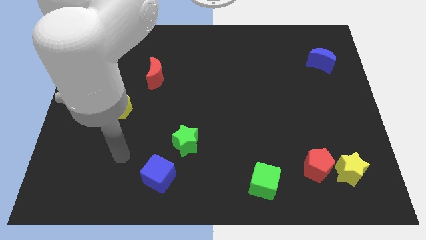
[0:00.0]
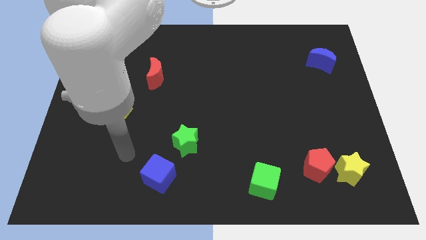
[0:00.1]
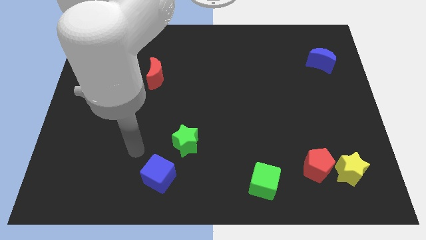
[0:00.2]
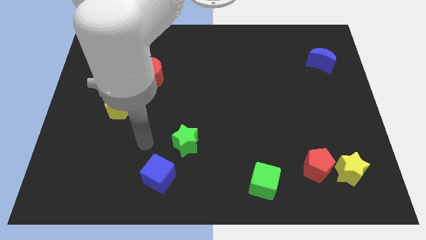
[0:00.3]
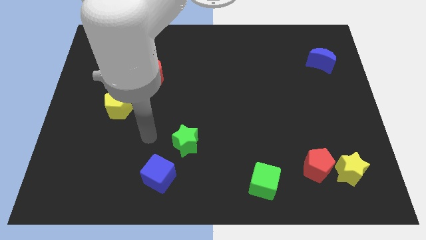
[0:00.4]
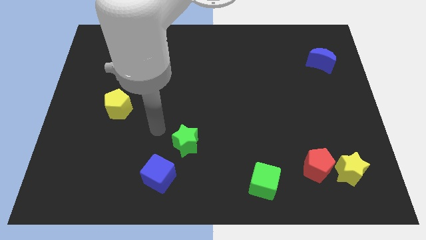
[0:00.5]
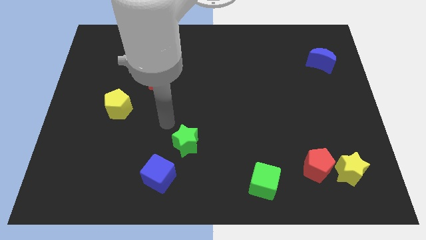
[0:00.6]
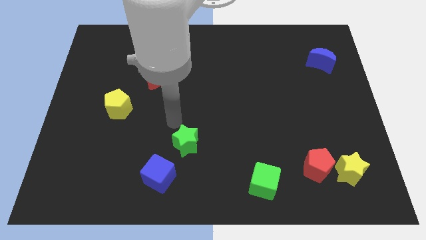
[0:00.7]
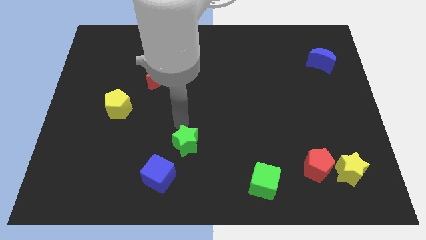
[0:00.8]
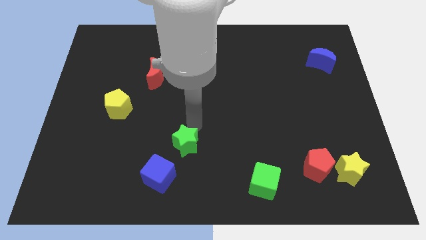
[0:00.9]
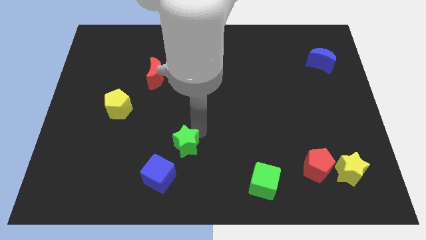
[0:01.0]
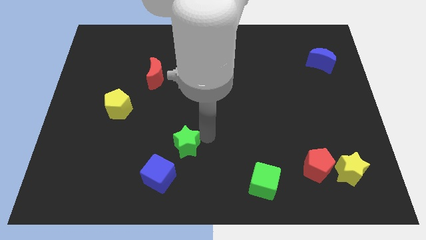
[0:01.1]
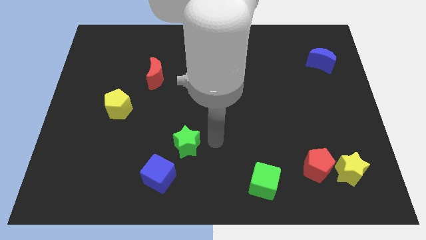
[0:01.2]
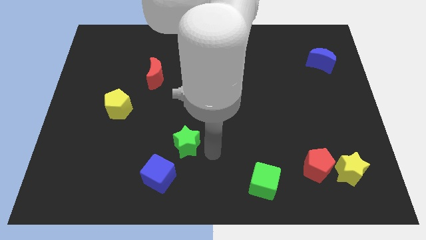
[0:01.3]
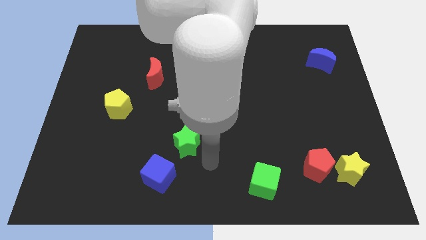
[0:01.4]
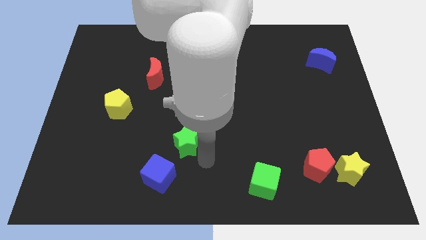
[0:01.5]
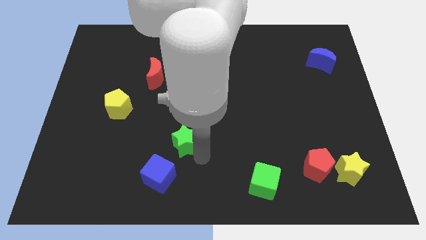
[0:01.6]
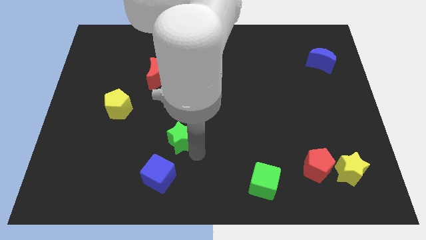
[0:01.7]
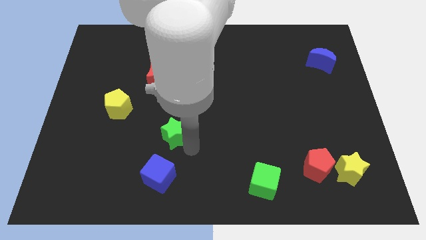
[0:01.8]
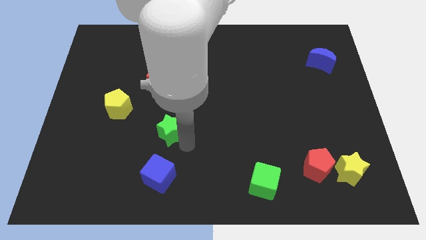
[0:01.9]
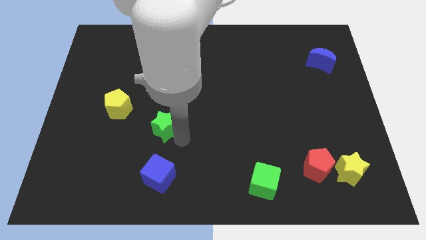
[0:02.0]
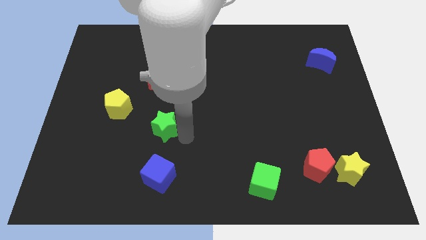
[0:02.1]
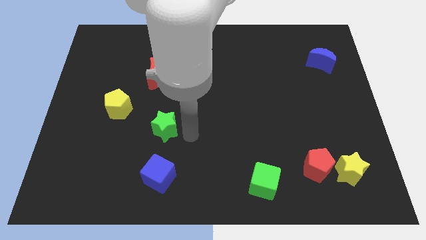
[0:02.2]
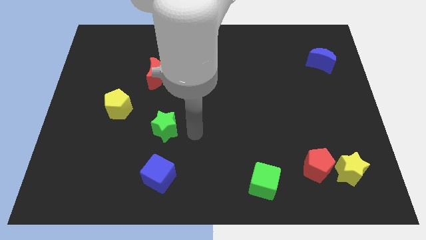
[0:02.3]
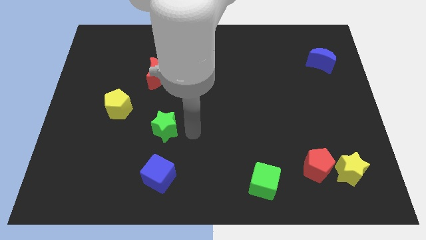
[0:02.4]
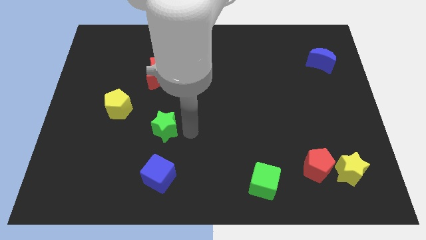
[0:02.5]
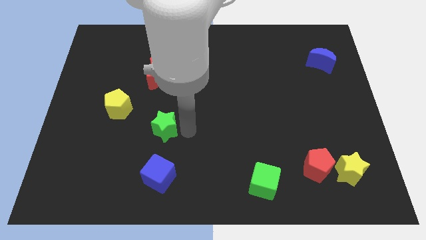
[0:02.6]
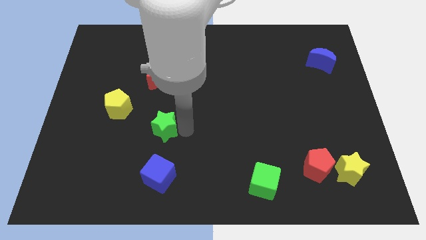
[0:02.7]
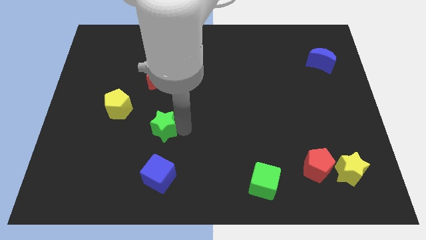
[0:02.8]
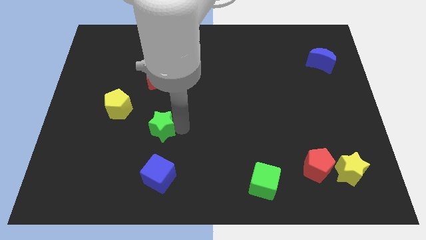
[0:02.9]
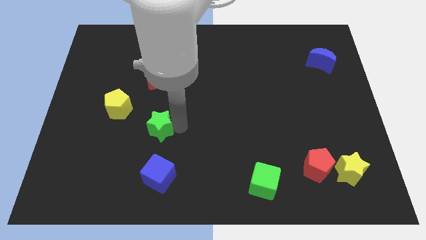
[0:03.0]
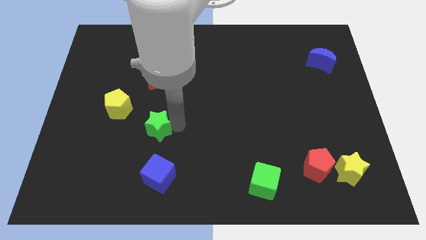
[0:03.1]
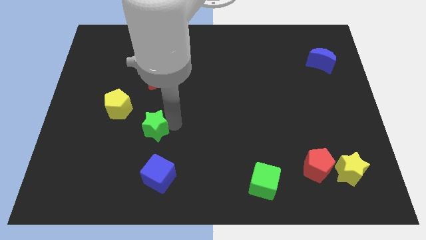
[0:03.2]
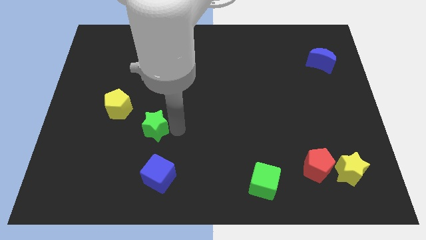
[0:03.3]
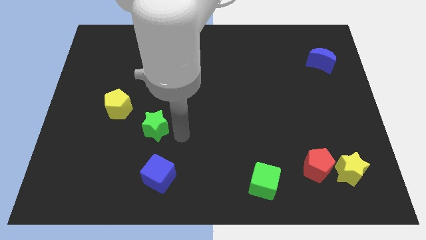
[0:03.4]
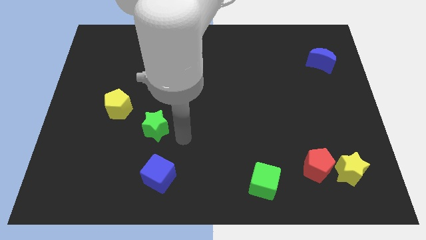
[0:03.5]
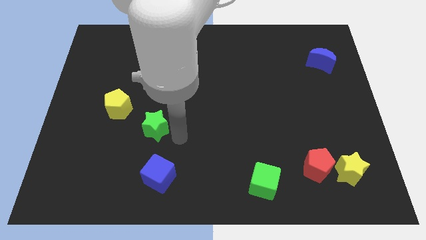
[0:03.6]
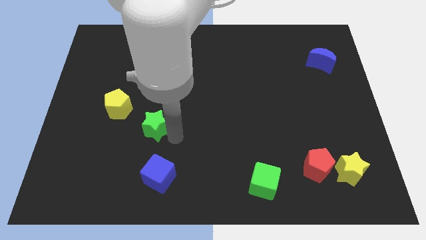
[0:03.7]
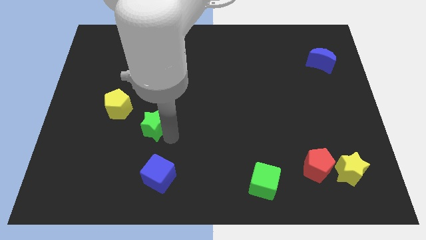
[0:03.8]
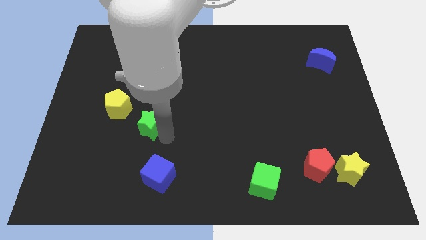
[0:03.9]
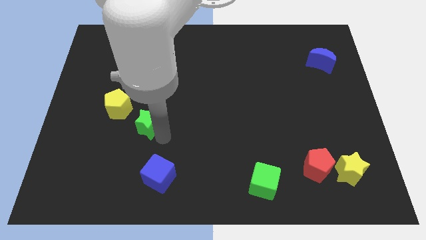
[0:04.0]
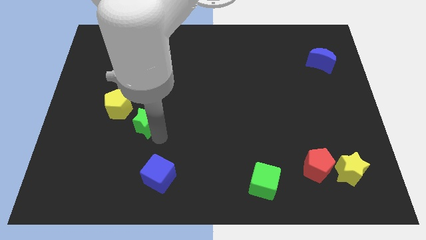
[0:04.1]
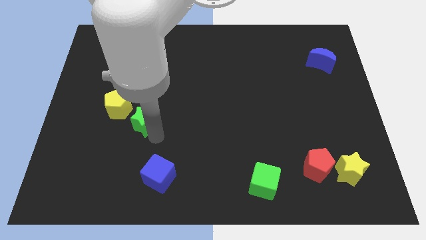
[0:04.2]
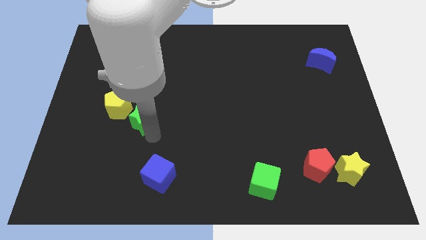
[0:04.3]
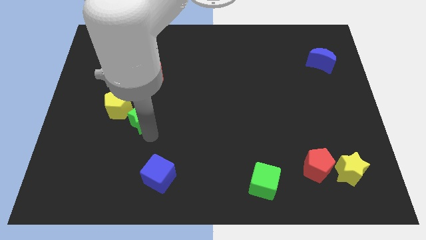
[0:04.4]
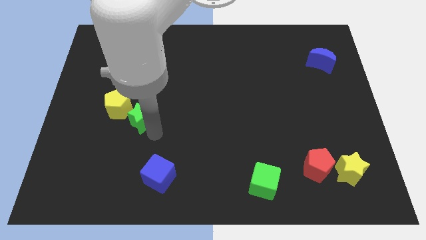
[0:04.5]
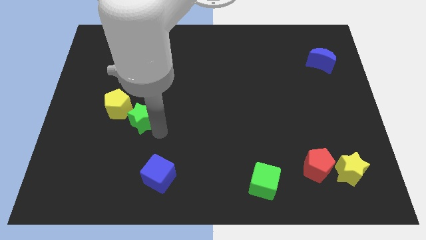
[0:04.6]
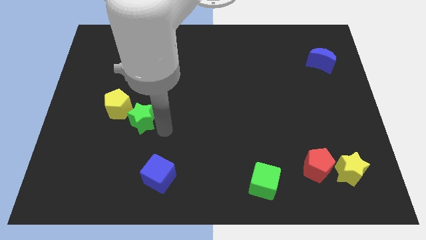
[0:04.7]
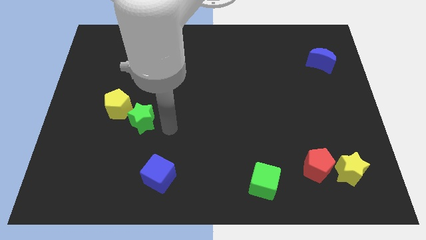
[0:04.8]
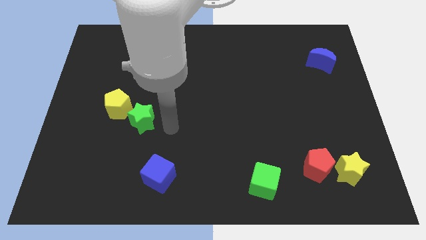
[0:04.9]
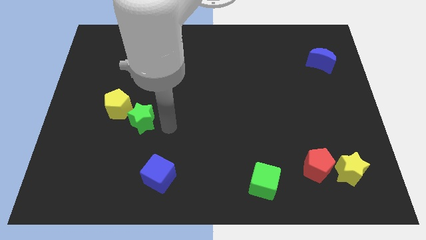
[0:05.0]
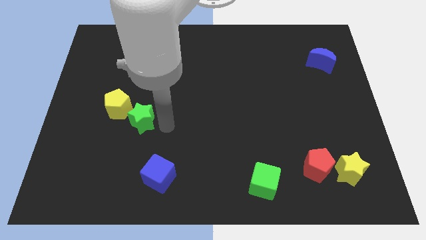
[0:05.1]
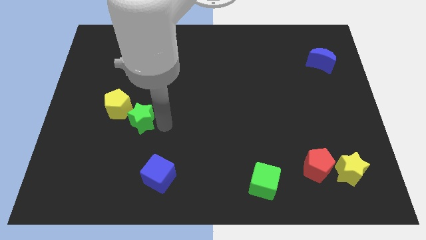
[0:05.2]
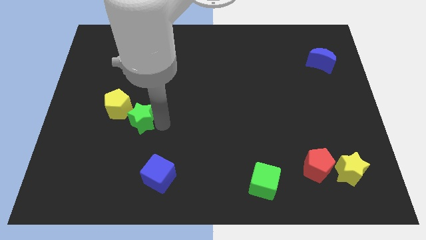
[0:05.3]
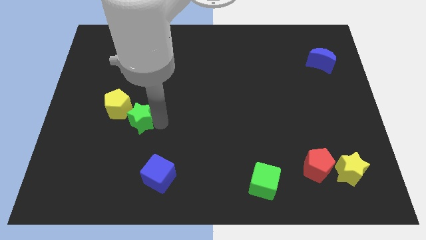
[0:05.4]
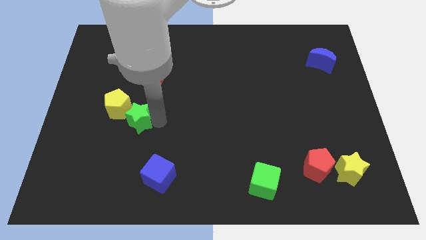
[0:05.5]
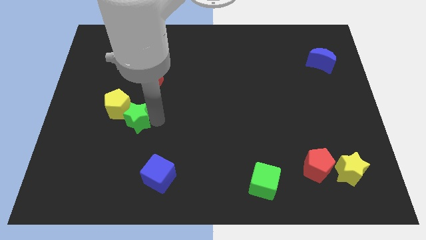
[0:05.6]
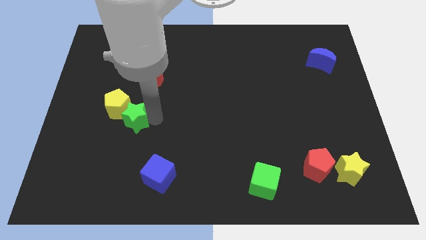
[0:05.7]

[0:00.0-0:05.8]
push the green star towards the yellow pentagon

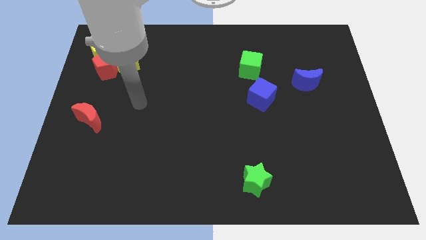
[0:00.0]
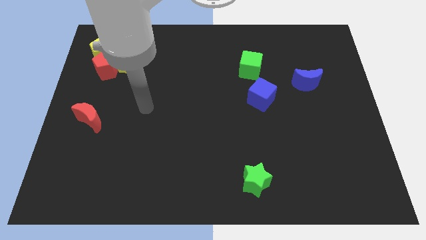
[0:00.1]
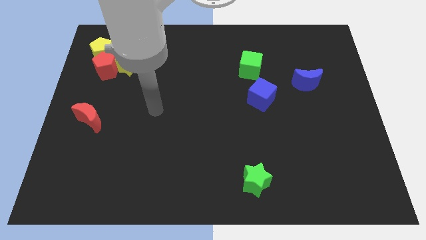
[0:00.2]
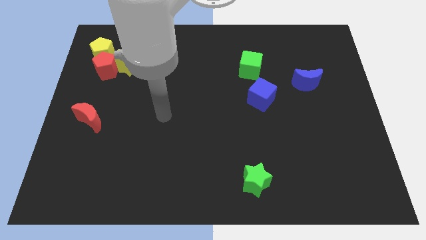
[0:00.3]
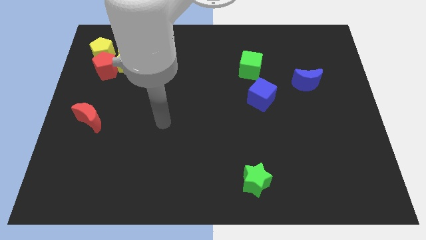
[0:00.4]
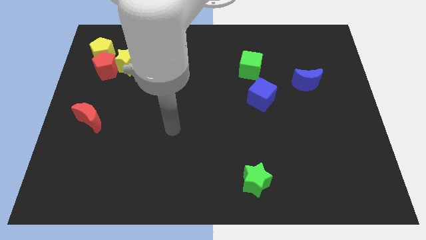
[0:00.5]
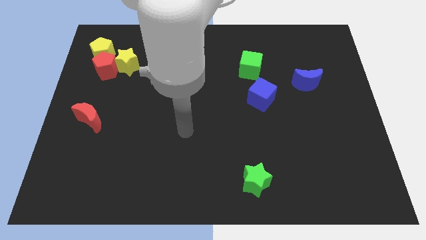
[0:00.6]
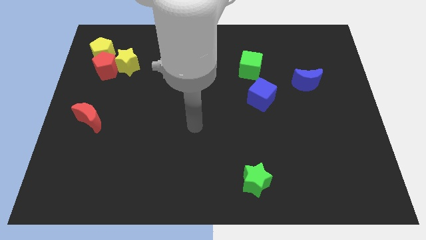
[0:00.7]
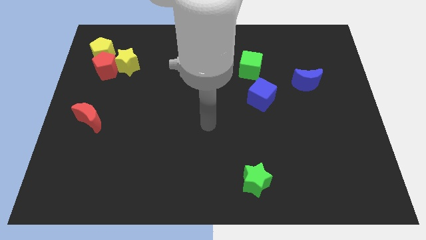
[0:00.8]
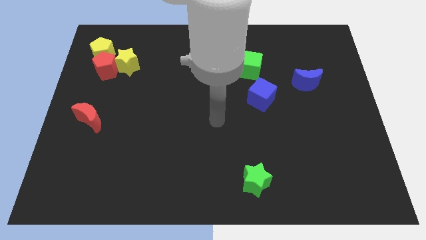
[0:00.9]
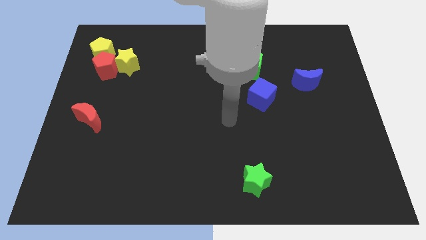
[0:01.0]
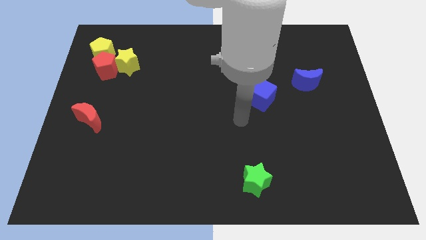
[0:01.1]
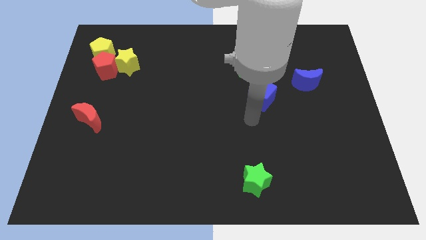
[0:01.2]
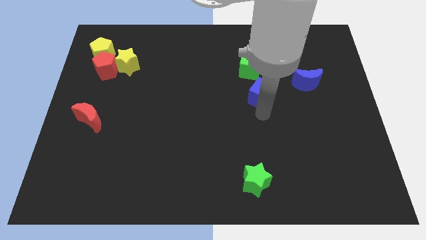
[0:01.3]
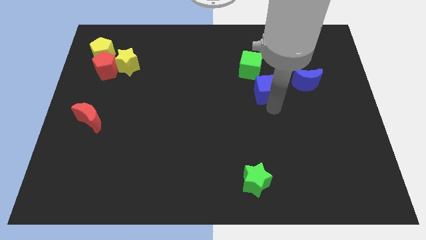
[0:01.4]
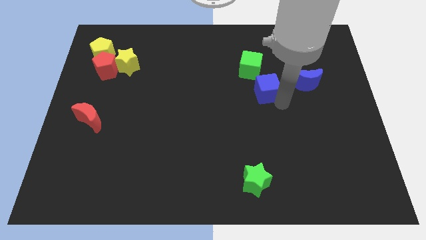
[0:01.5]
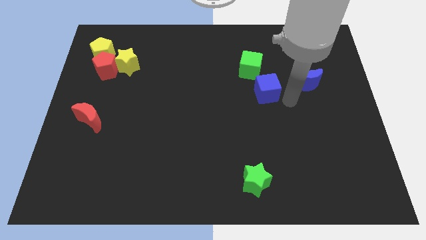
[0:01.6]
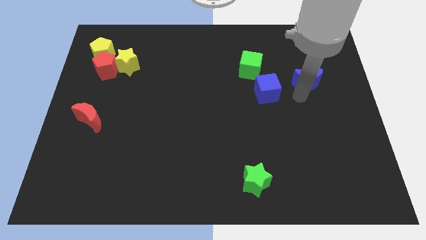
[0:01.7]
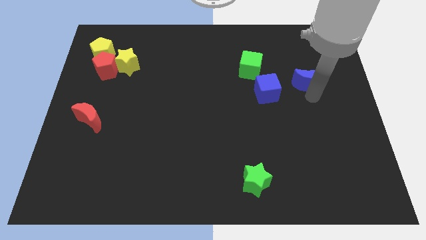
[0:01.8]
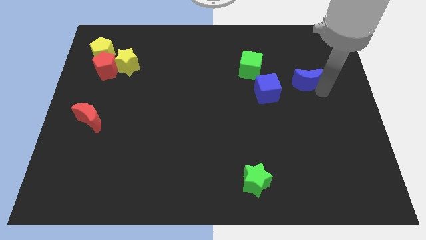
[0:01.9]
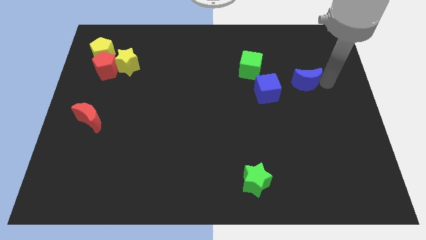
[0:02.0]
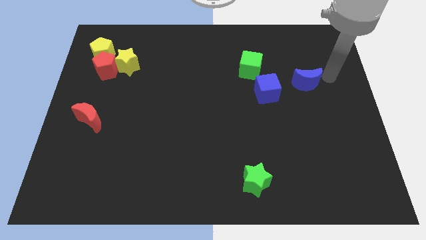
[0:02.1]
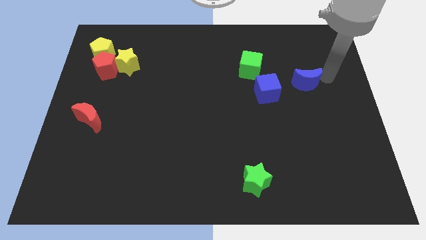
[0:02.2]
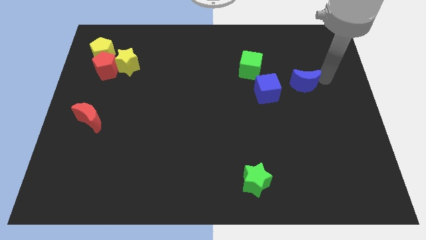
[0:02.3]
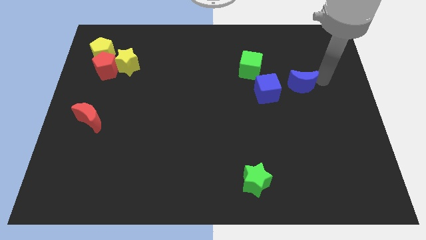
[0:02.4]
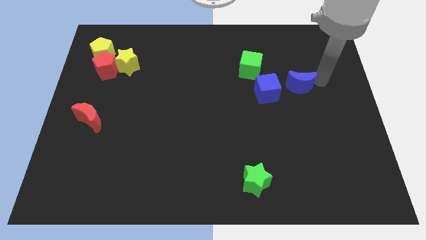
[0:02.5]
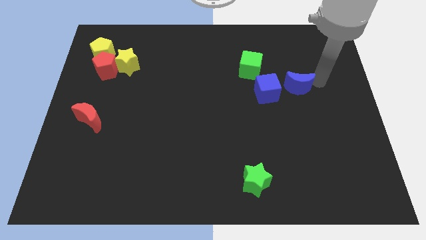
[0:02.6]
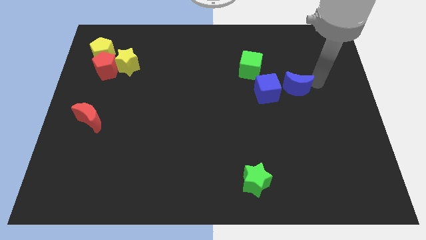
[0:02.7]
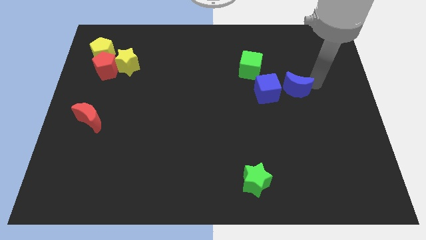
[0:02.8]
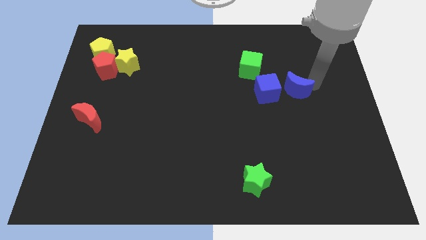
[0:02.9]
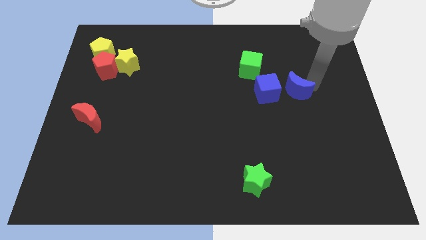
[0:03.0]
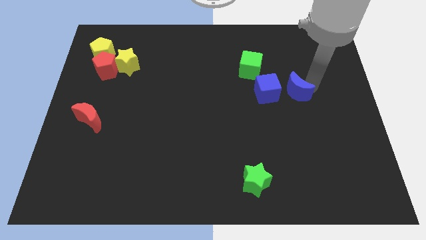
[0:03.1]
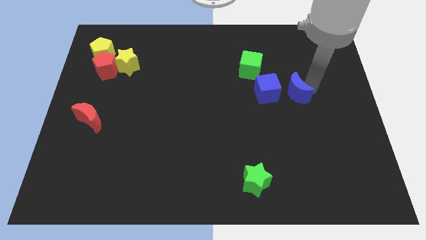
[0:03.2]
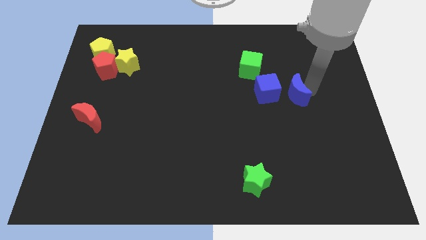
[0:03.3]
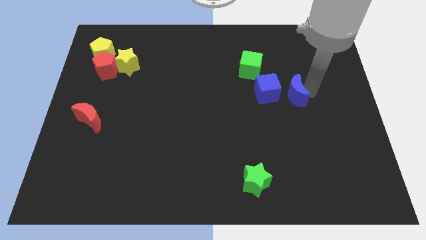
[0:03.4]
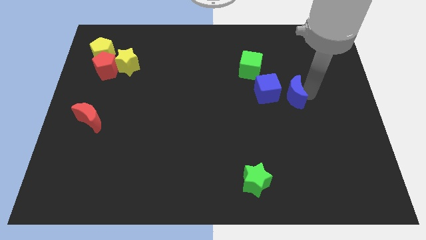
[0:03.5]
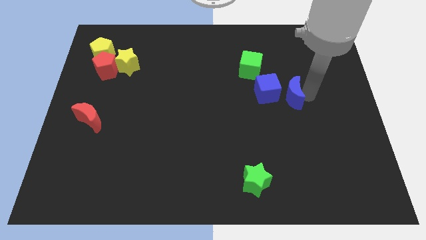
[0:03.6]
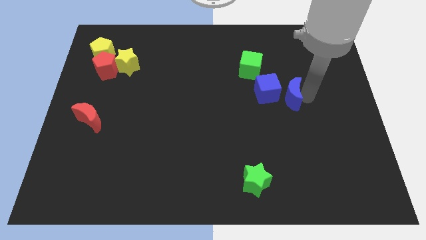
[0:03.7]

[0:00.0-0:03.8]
put the blue moon towards the blue cube
